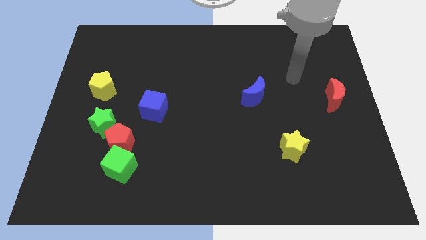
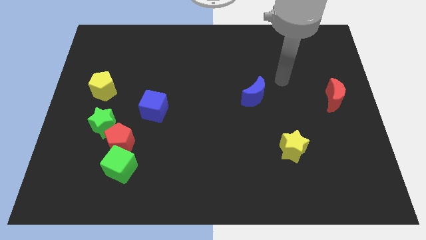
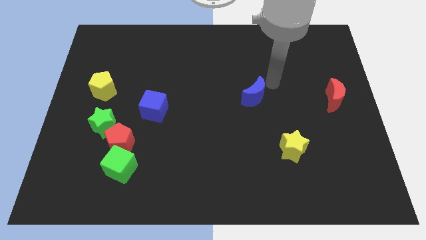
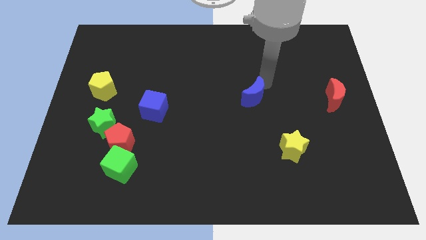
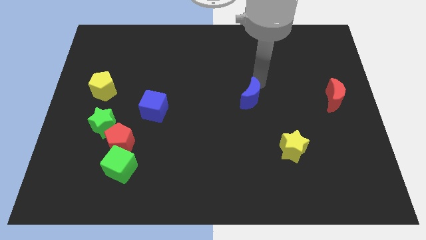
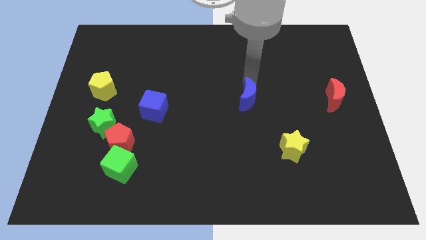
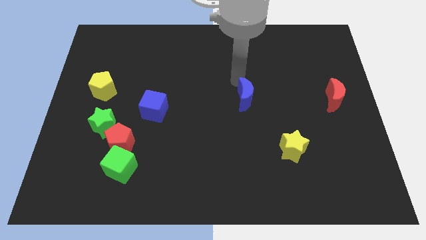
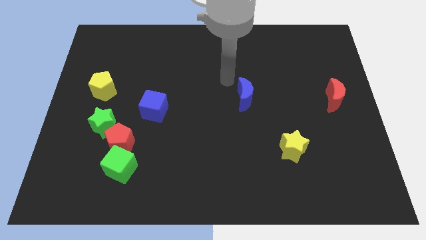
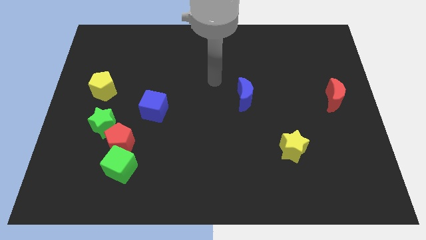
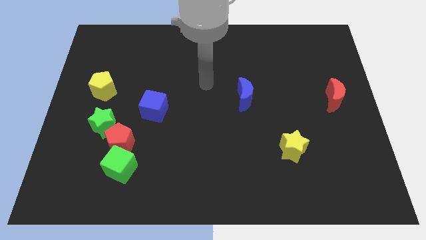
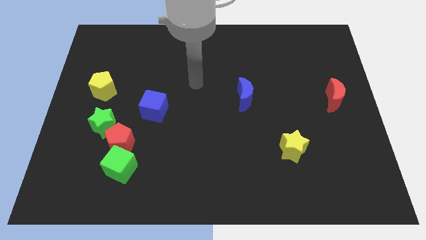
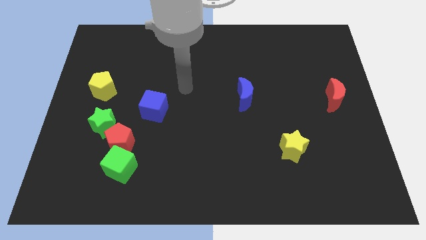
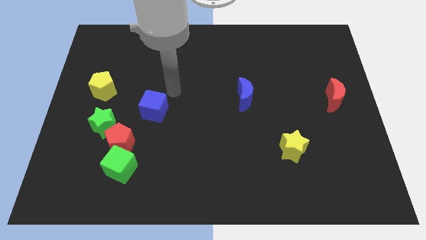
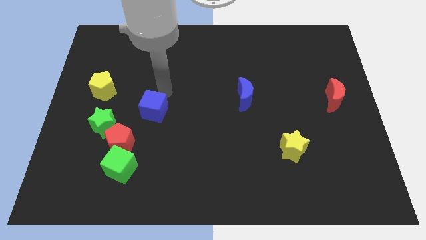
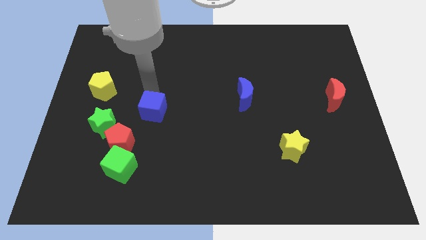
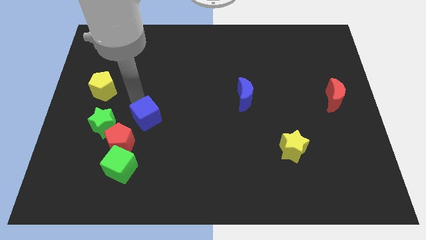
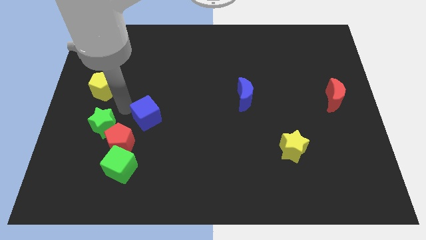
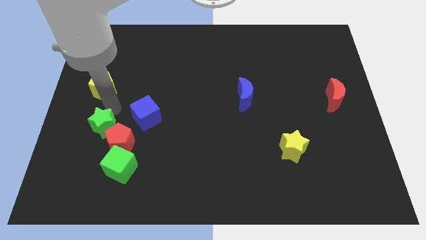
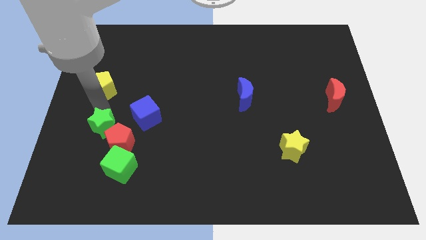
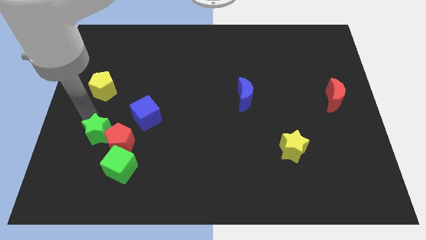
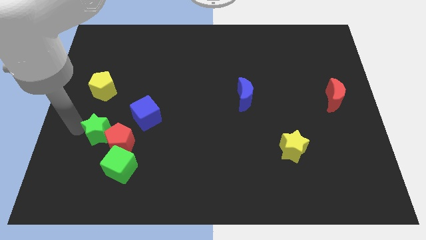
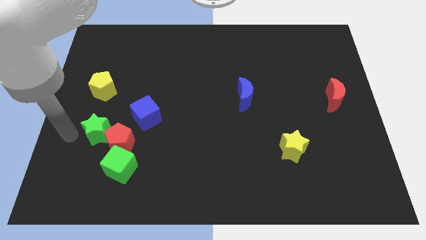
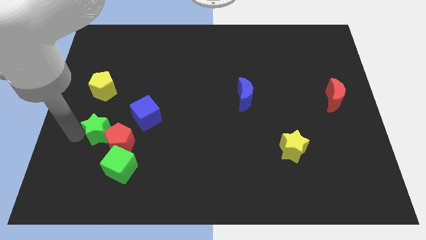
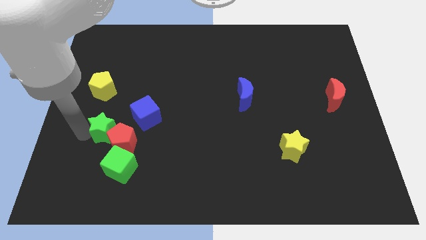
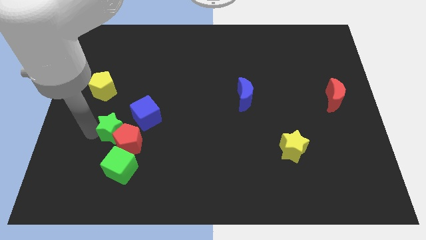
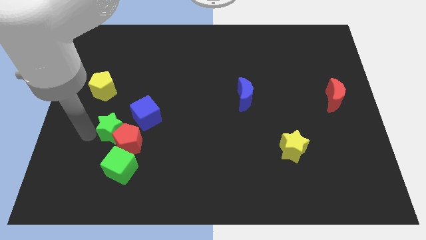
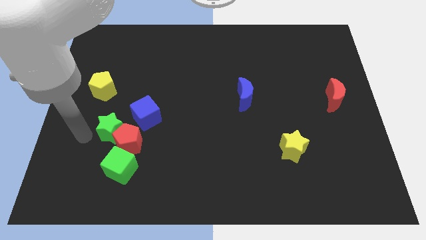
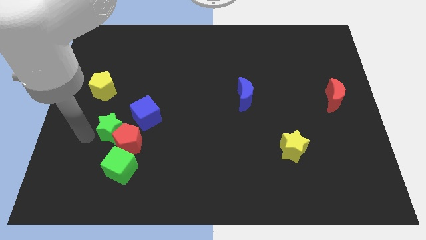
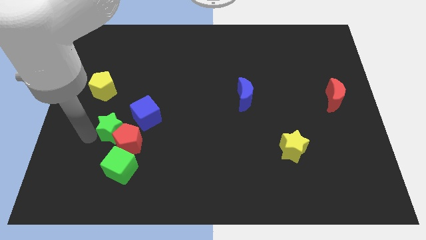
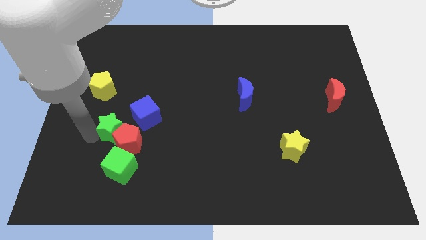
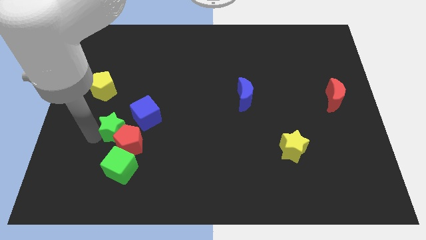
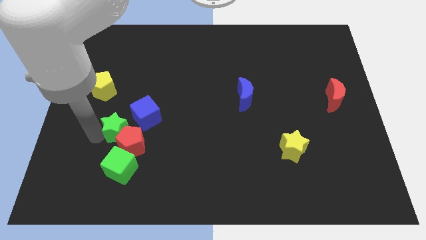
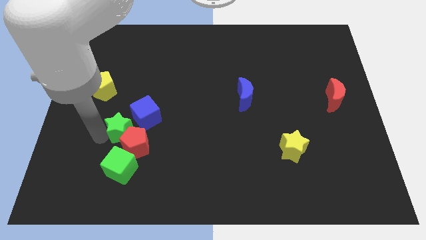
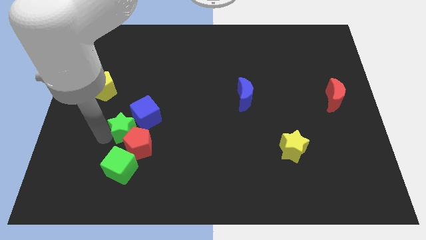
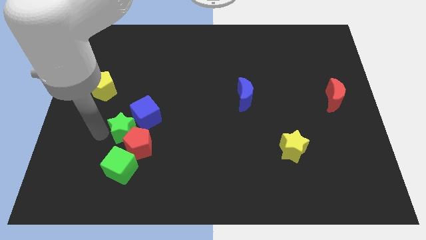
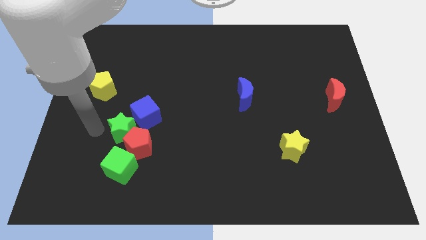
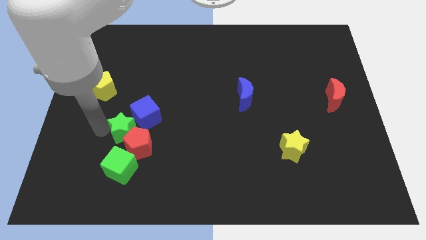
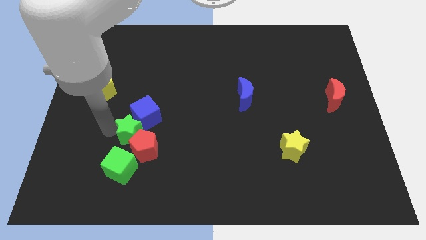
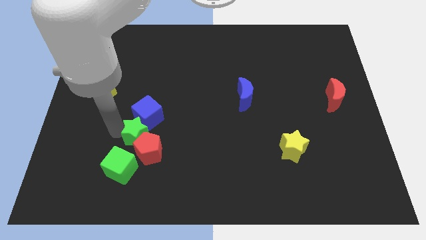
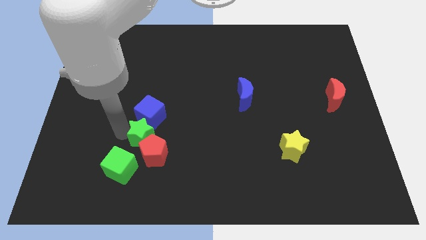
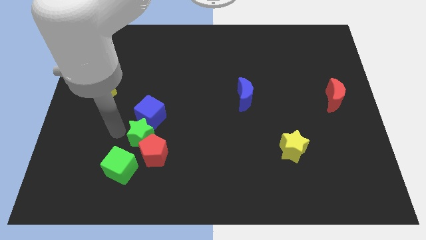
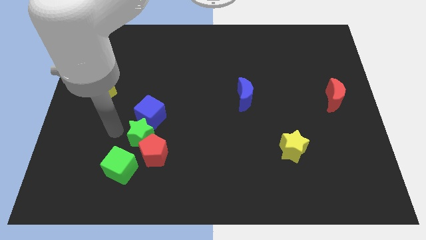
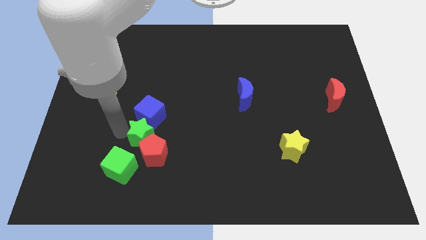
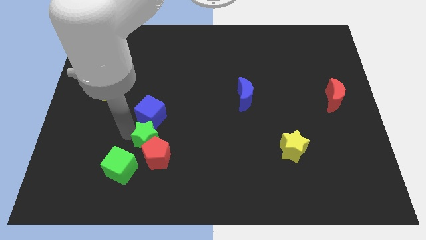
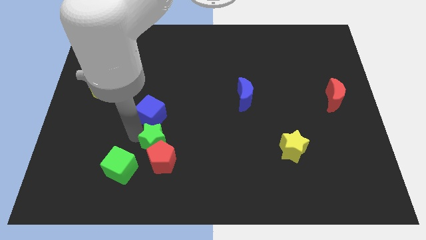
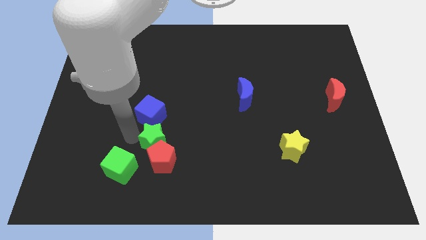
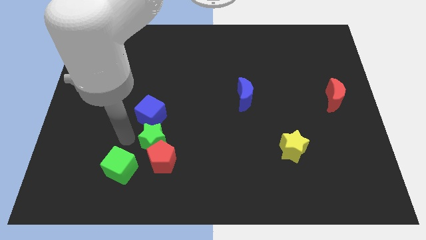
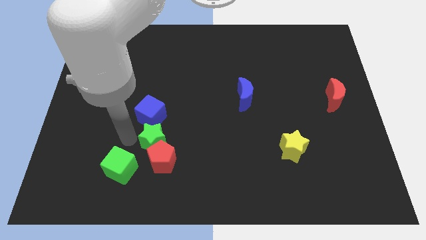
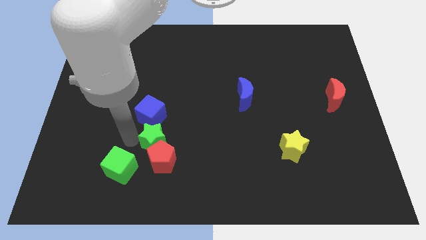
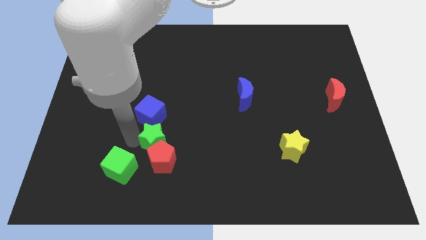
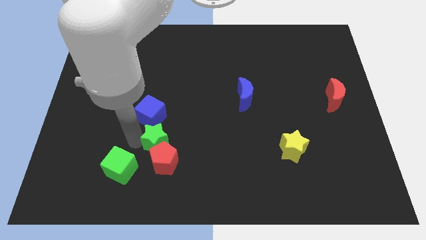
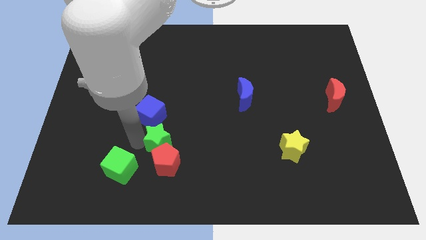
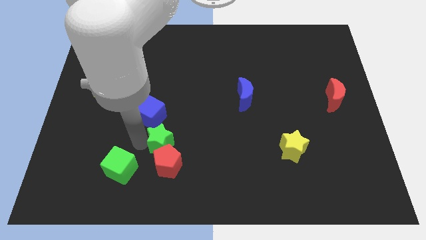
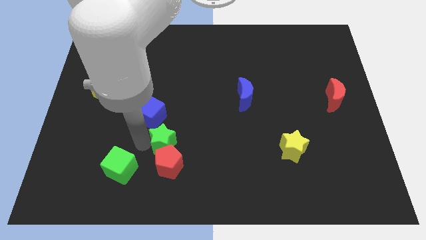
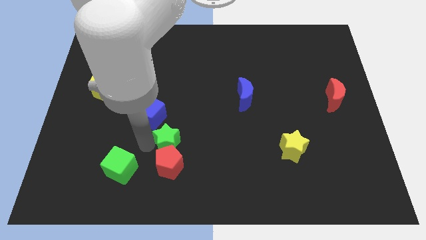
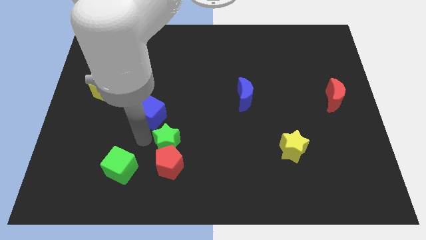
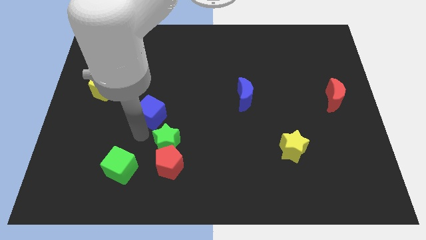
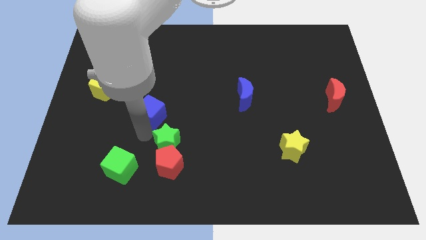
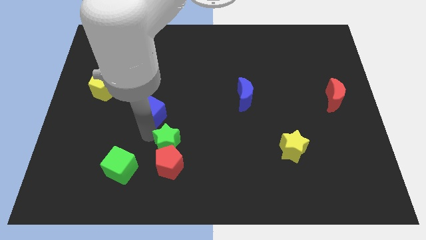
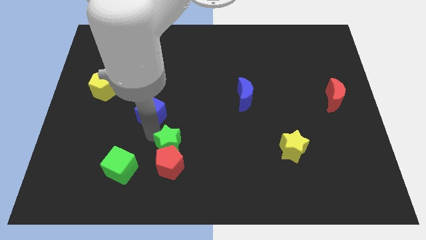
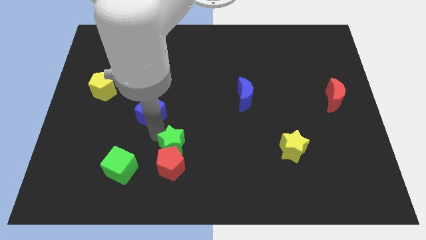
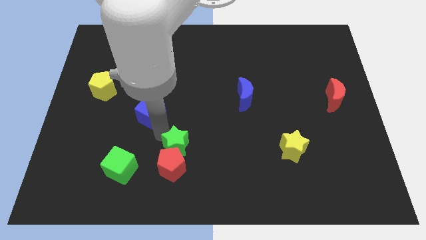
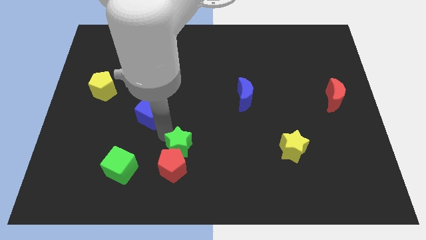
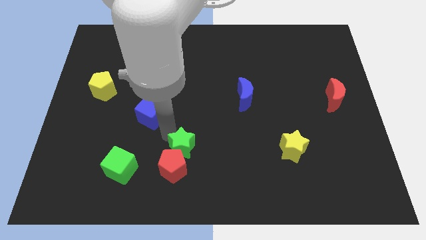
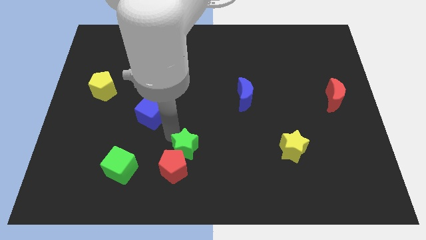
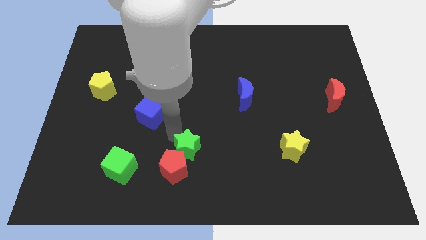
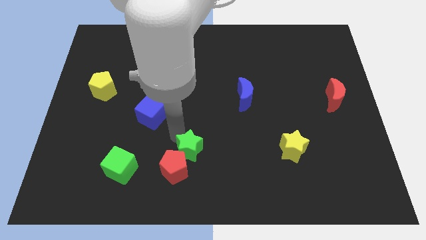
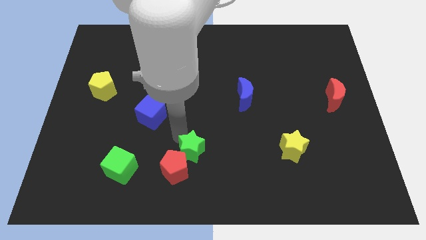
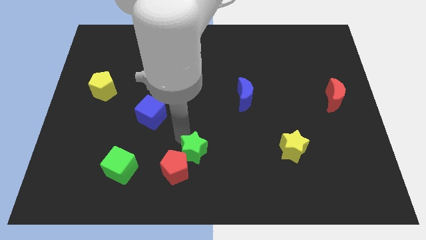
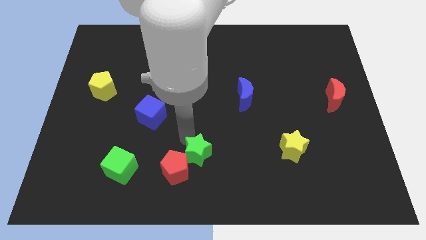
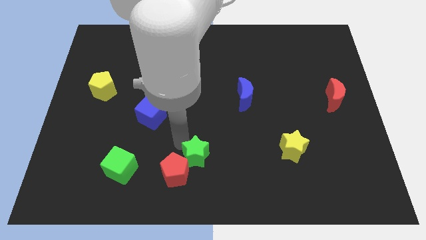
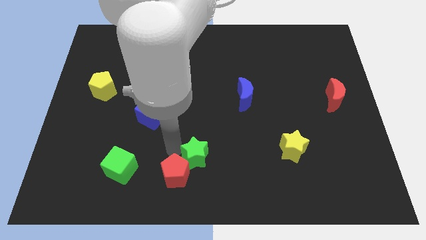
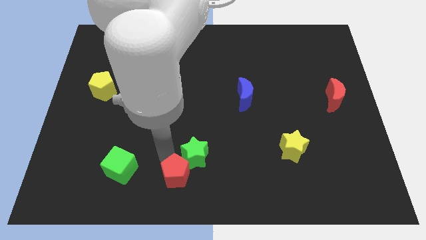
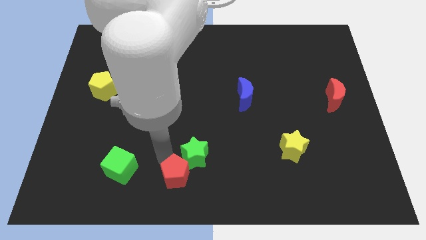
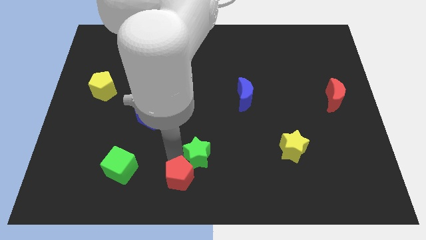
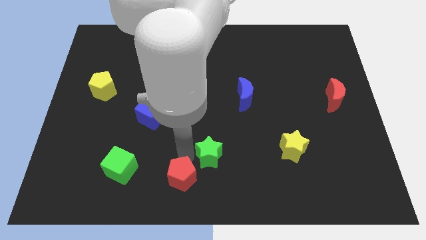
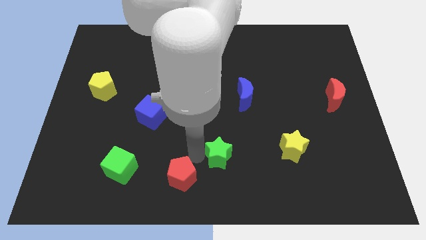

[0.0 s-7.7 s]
slide the green star left of the yellow star
